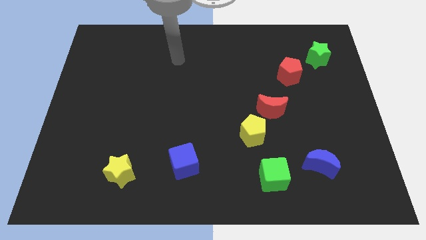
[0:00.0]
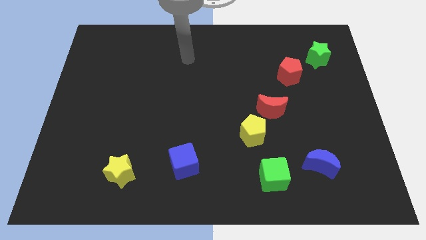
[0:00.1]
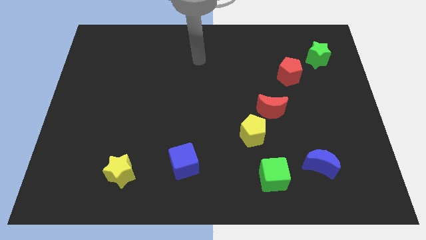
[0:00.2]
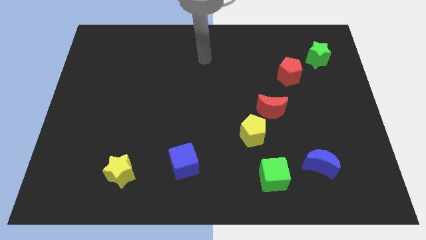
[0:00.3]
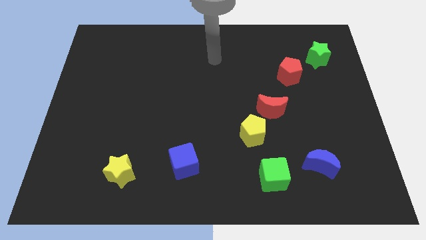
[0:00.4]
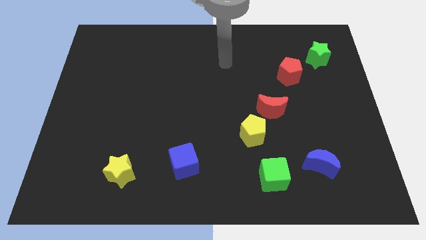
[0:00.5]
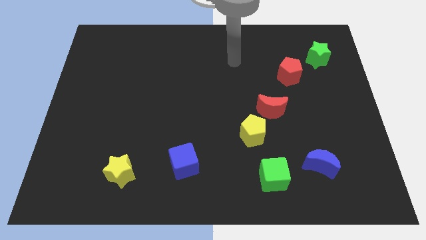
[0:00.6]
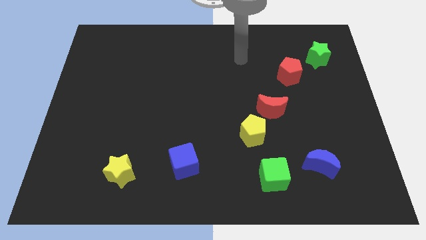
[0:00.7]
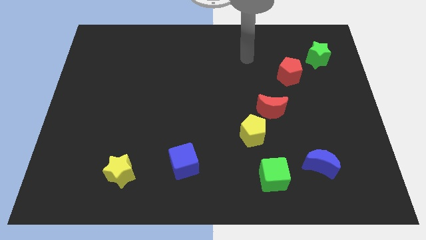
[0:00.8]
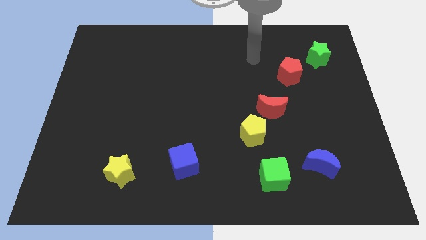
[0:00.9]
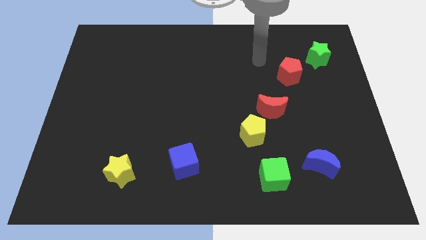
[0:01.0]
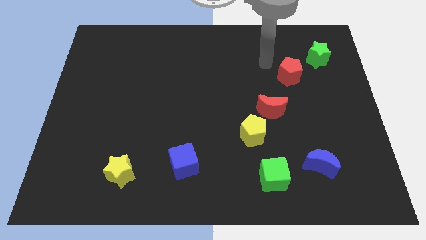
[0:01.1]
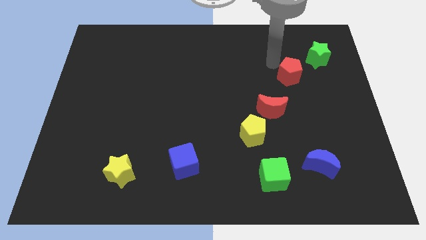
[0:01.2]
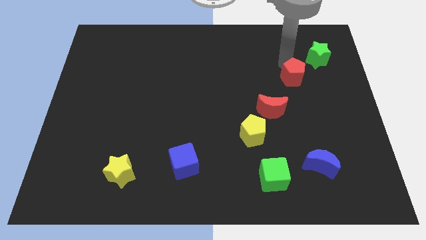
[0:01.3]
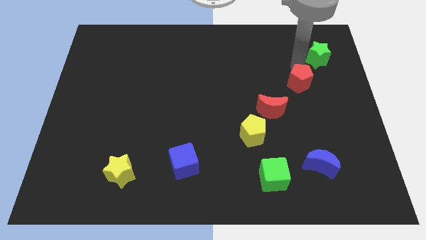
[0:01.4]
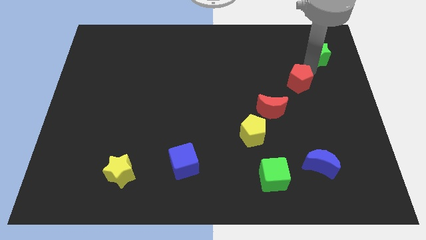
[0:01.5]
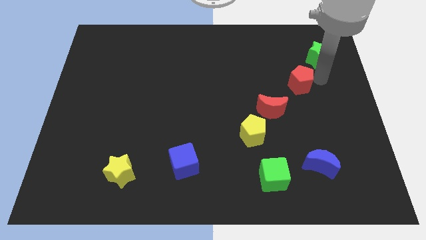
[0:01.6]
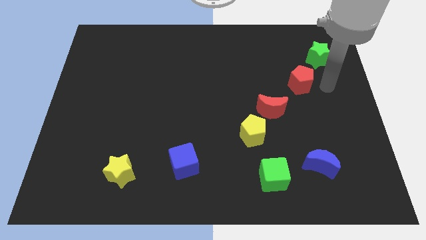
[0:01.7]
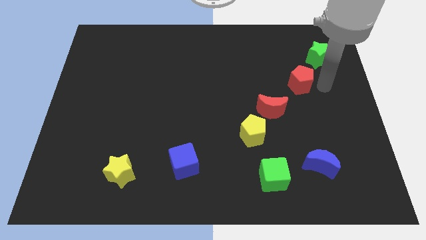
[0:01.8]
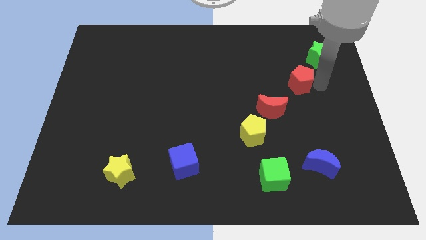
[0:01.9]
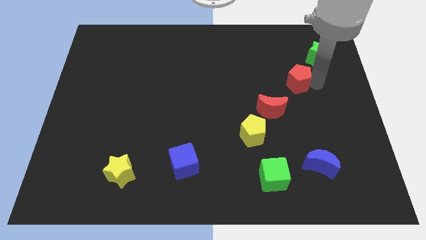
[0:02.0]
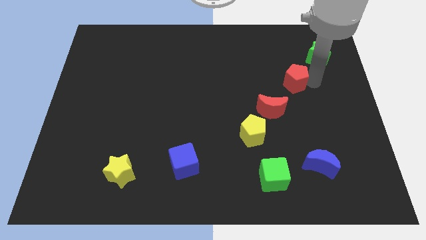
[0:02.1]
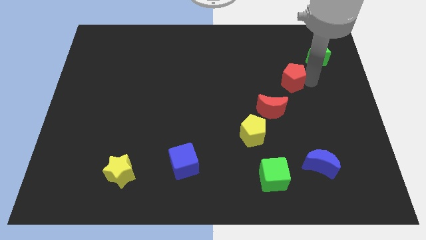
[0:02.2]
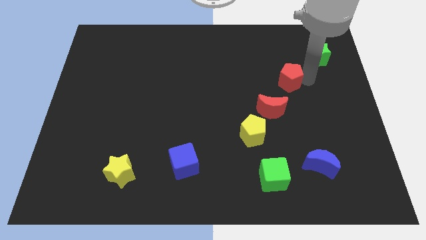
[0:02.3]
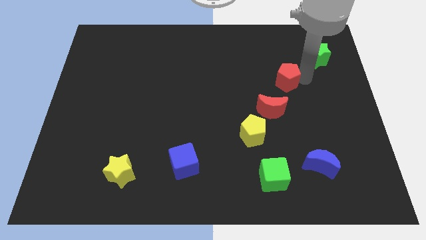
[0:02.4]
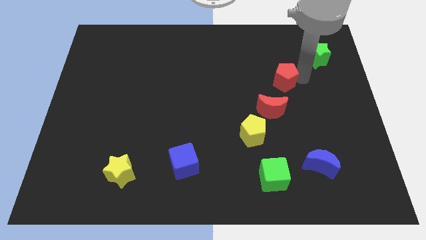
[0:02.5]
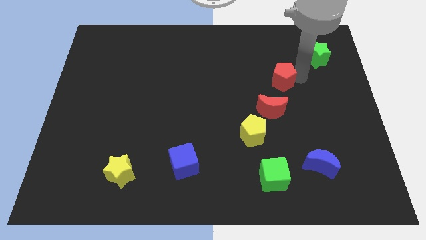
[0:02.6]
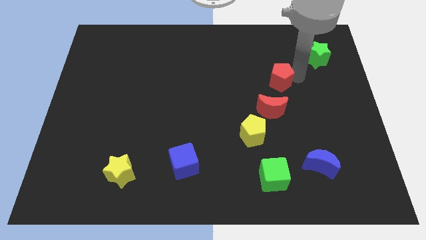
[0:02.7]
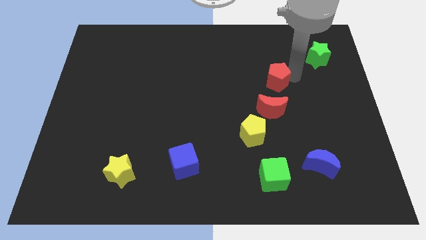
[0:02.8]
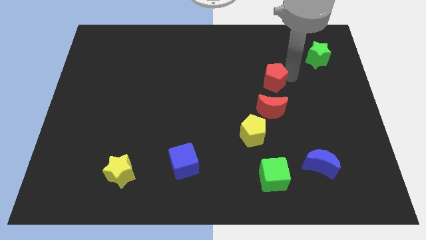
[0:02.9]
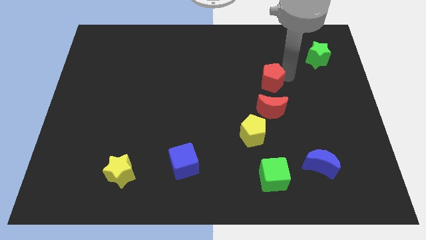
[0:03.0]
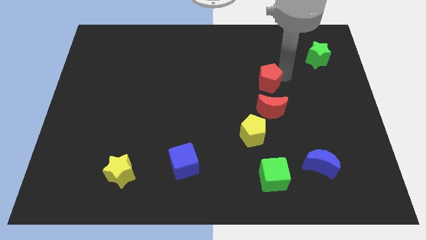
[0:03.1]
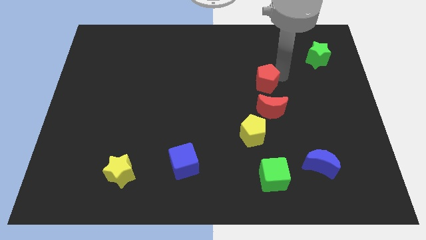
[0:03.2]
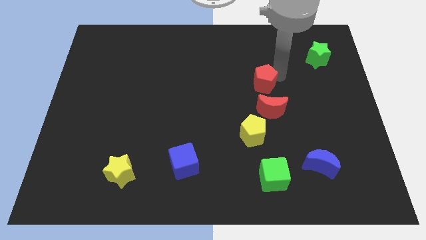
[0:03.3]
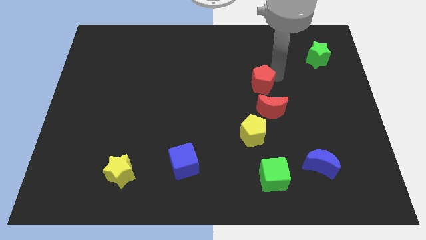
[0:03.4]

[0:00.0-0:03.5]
slide the red pentagon left a little

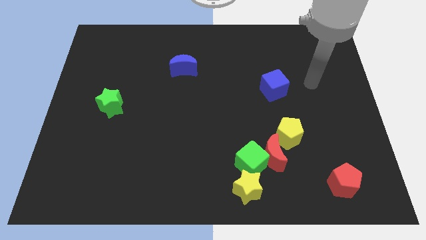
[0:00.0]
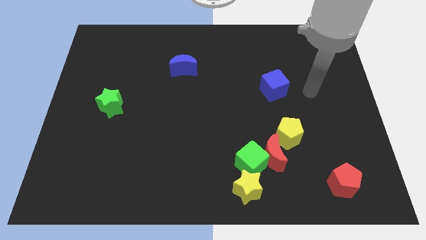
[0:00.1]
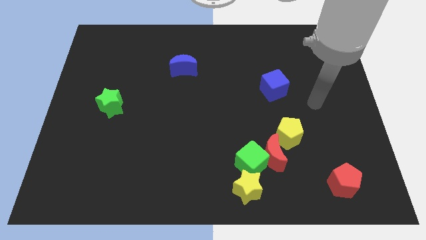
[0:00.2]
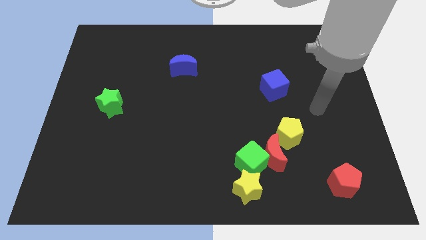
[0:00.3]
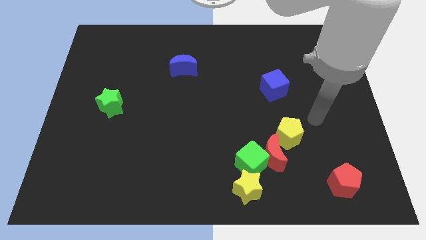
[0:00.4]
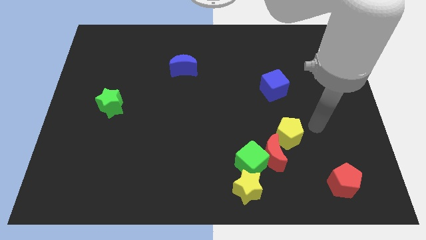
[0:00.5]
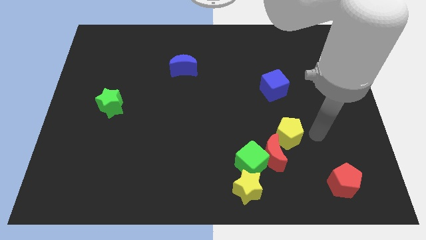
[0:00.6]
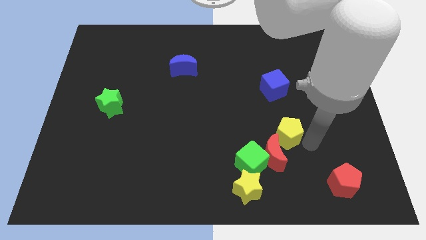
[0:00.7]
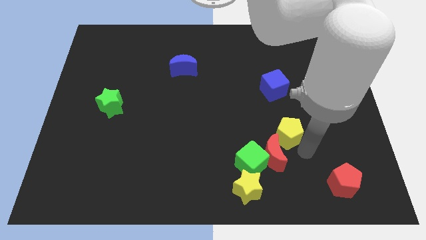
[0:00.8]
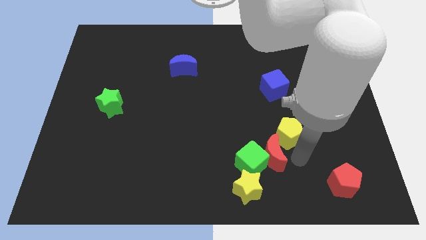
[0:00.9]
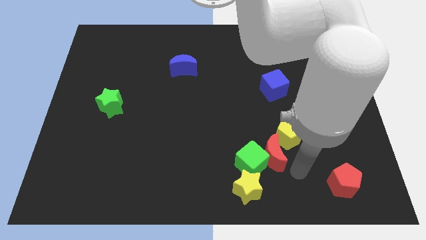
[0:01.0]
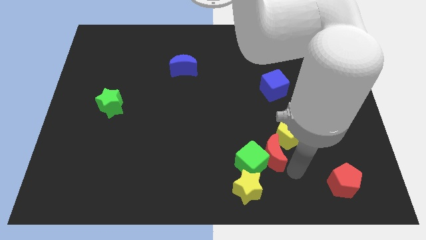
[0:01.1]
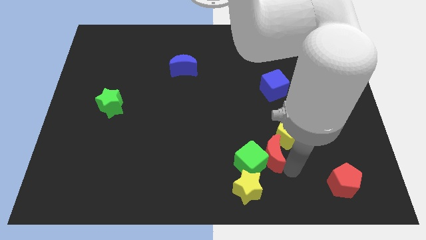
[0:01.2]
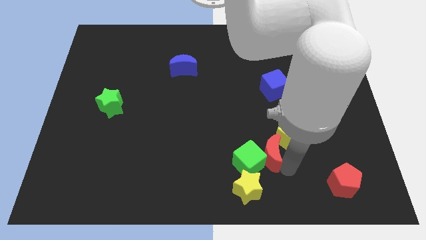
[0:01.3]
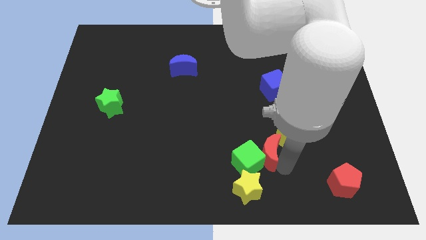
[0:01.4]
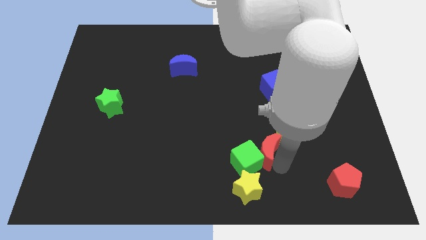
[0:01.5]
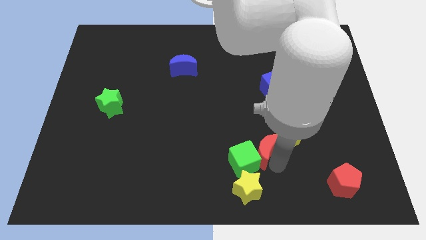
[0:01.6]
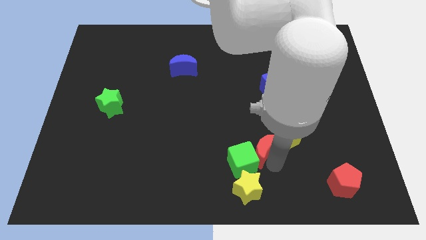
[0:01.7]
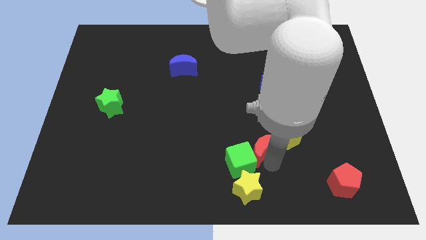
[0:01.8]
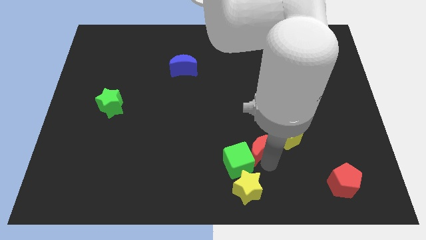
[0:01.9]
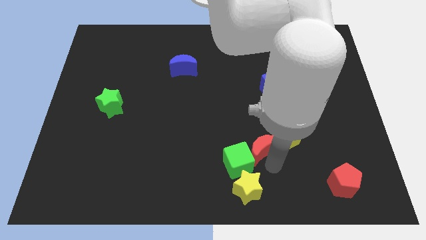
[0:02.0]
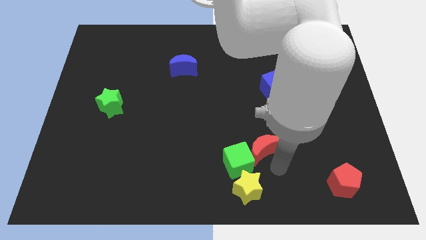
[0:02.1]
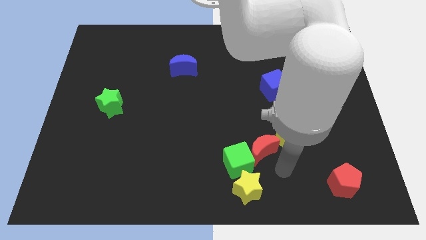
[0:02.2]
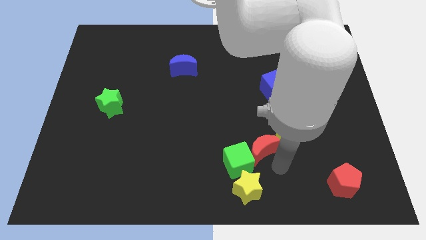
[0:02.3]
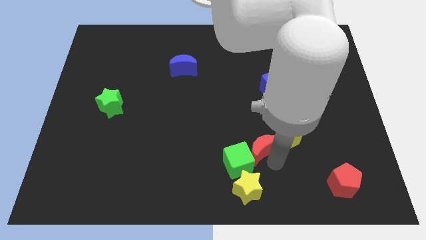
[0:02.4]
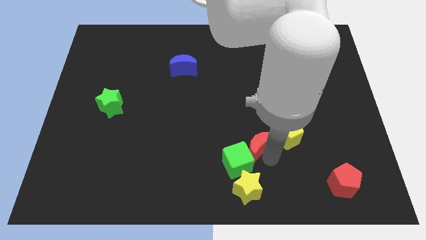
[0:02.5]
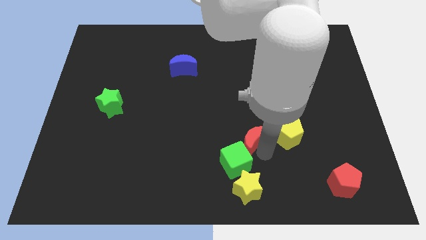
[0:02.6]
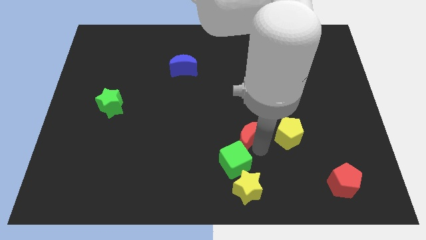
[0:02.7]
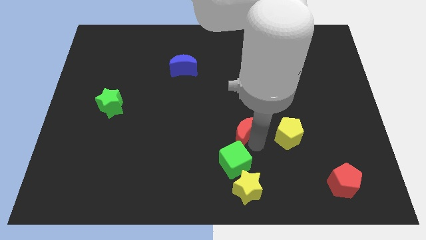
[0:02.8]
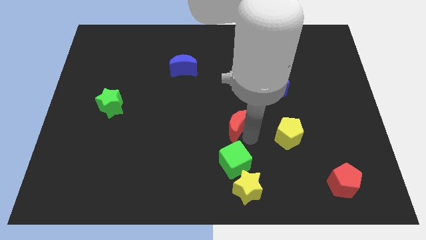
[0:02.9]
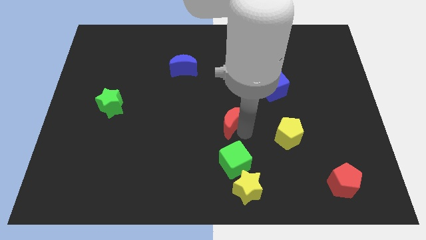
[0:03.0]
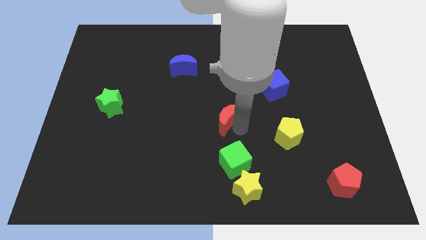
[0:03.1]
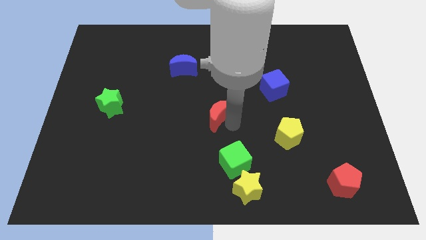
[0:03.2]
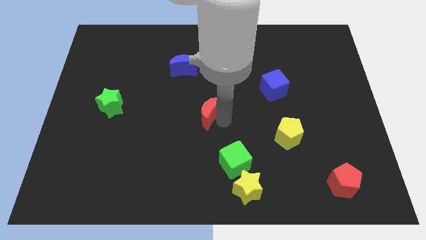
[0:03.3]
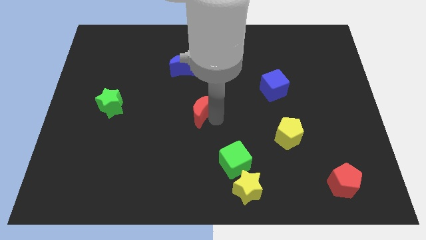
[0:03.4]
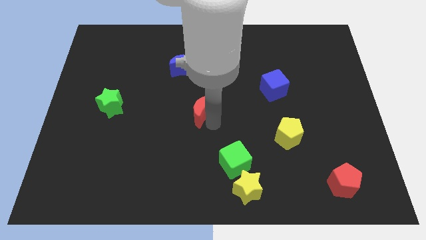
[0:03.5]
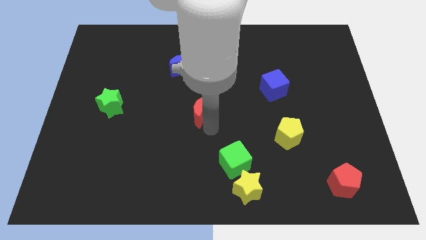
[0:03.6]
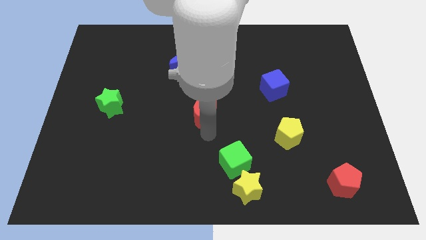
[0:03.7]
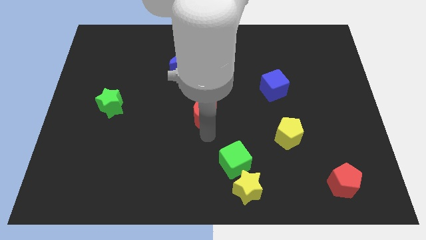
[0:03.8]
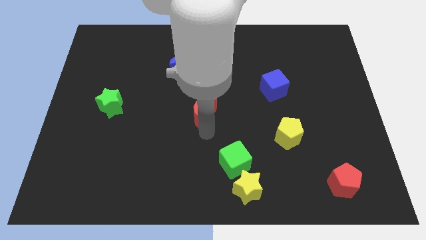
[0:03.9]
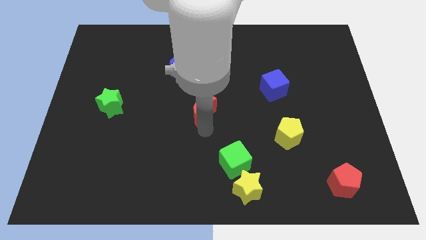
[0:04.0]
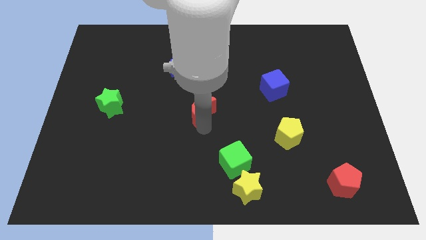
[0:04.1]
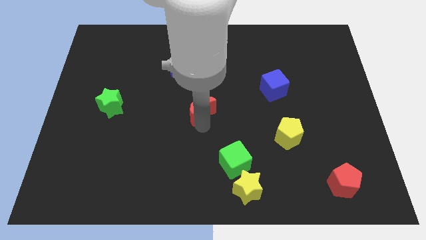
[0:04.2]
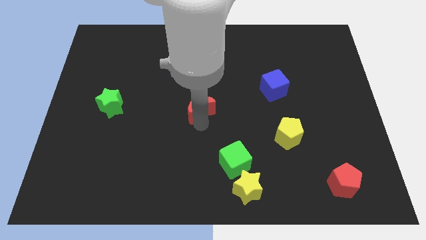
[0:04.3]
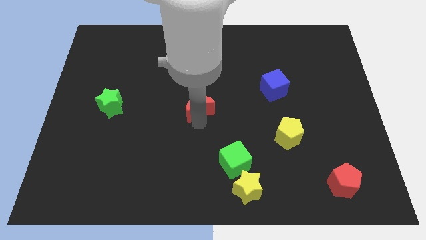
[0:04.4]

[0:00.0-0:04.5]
slide the red moon up and left diagonally
